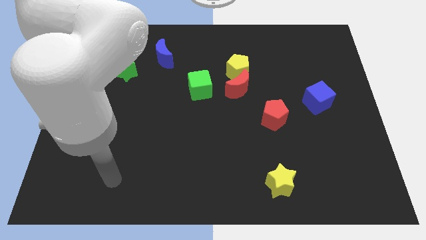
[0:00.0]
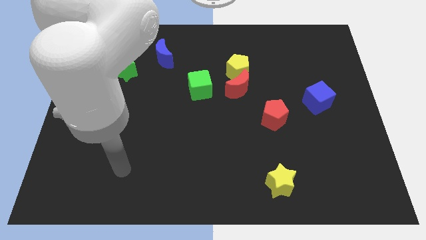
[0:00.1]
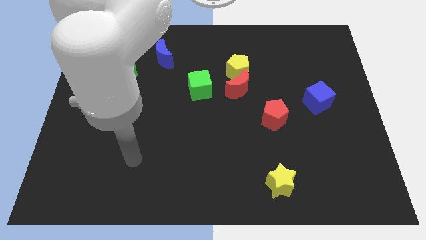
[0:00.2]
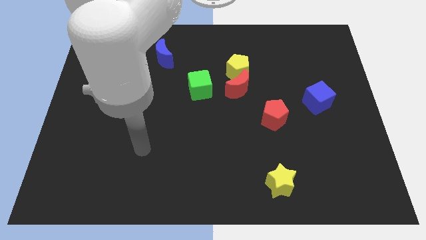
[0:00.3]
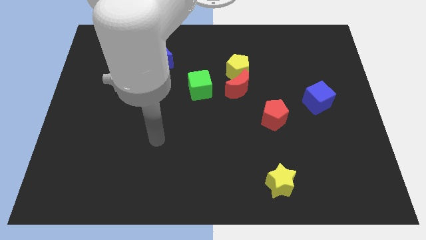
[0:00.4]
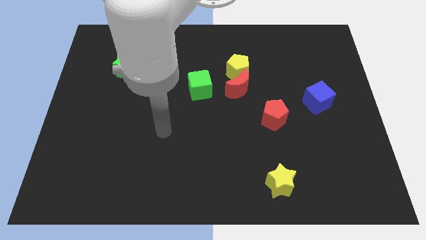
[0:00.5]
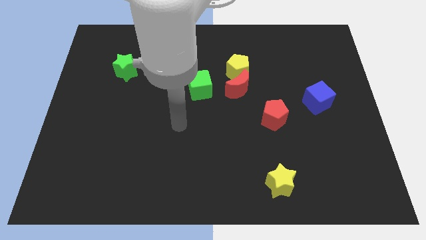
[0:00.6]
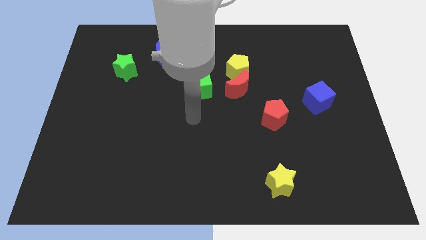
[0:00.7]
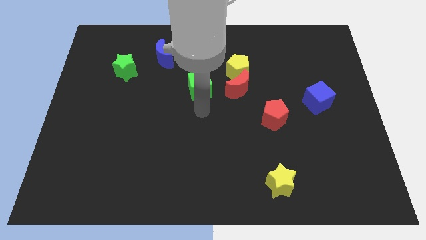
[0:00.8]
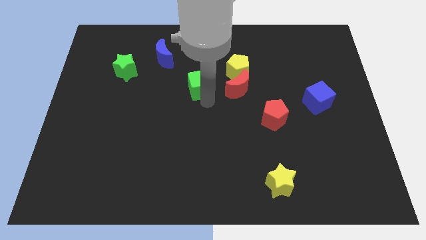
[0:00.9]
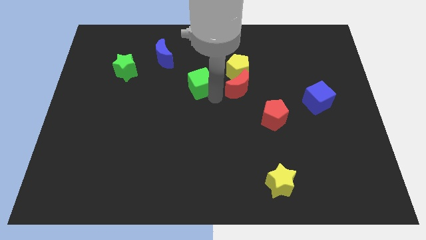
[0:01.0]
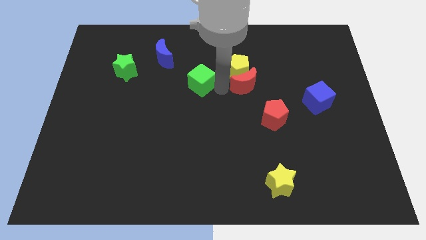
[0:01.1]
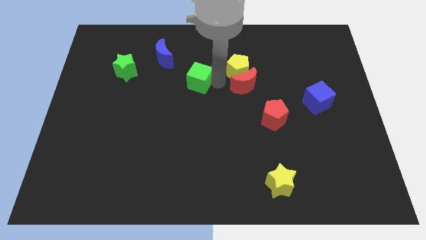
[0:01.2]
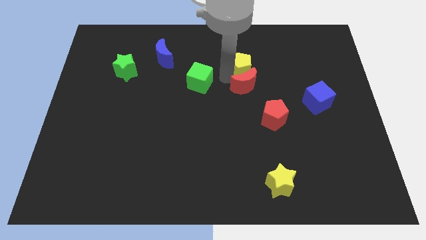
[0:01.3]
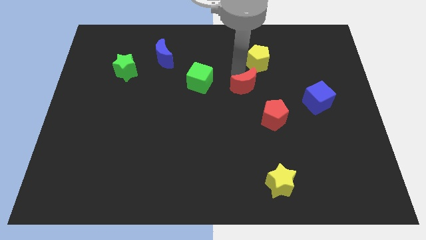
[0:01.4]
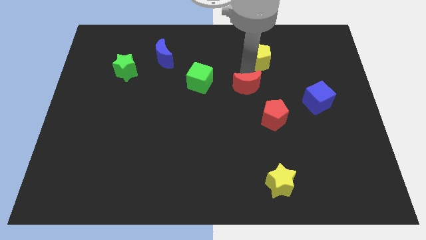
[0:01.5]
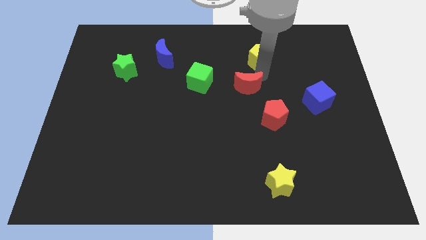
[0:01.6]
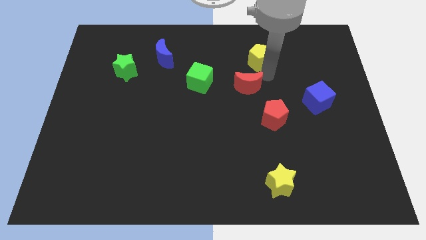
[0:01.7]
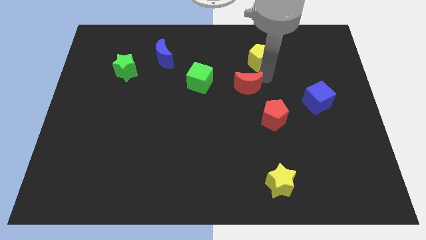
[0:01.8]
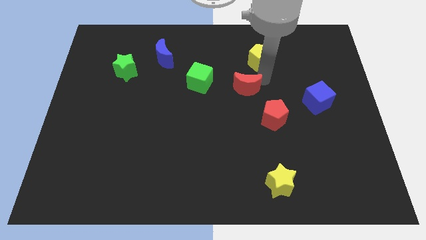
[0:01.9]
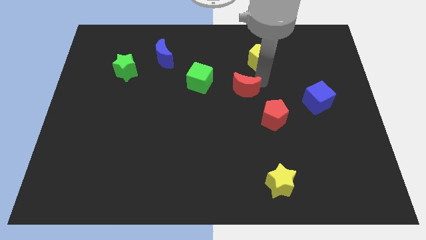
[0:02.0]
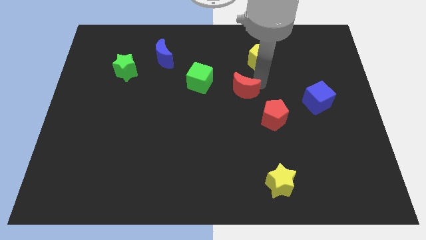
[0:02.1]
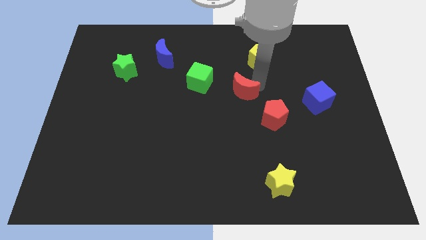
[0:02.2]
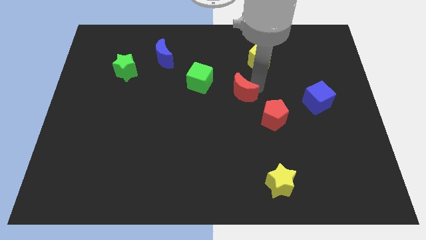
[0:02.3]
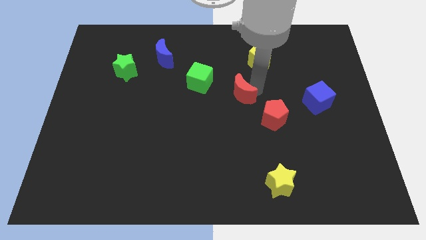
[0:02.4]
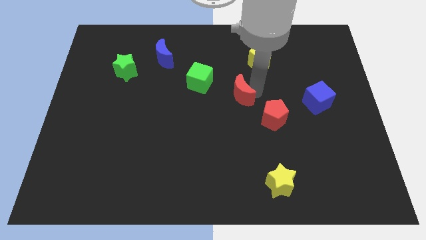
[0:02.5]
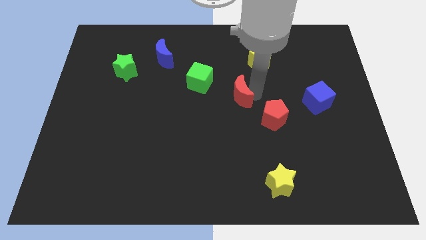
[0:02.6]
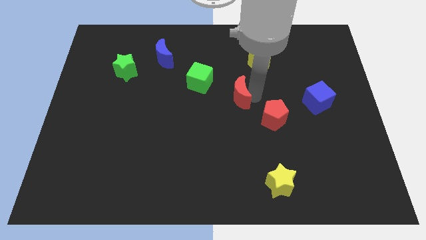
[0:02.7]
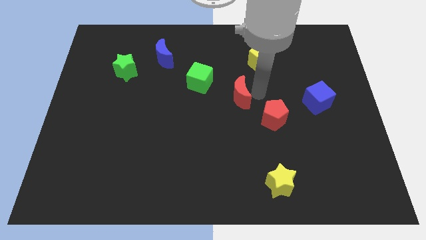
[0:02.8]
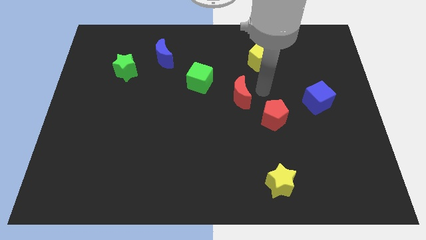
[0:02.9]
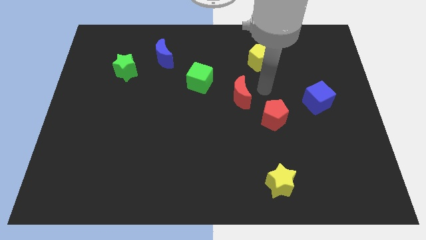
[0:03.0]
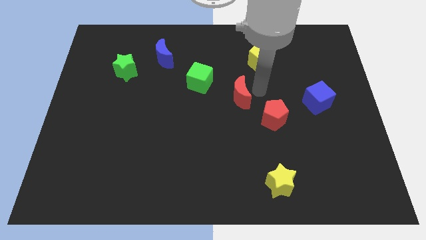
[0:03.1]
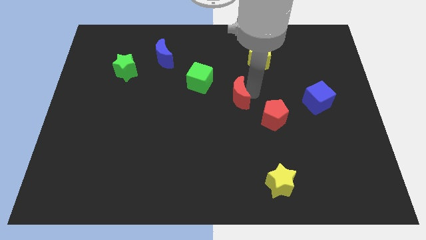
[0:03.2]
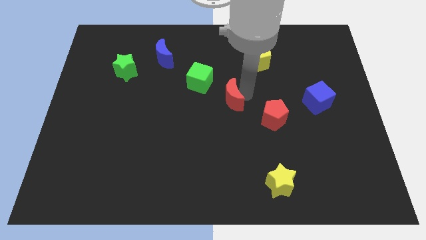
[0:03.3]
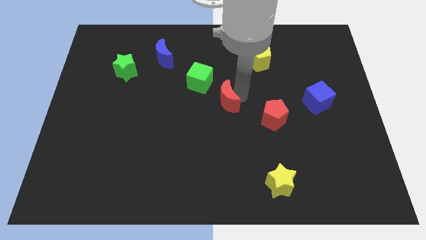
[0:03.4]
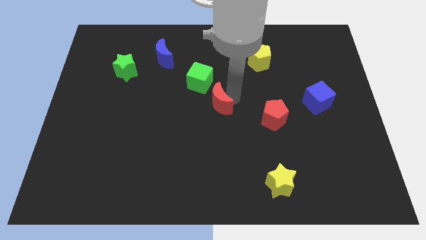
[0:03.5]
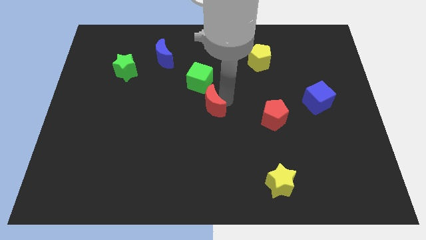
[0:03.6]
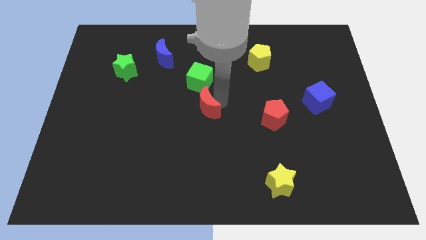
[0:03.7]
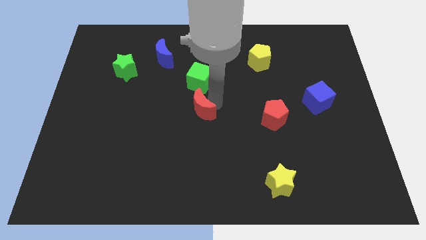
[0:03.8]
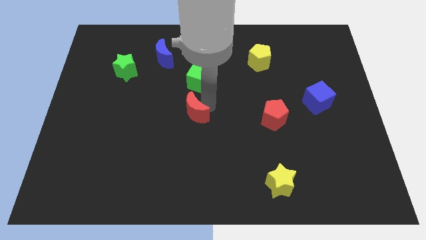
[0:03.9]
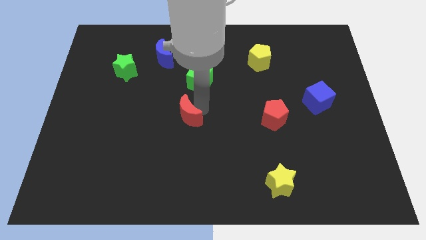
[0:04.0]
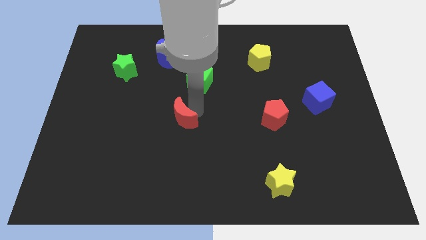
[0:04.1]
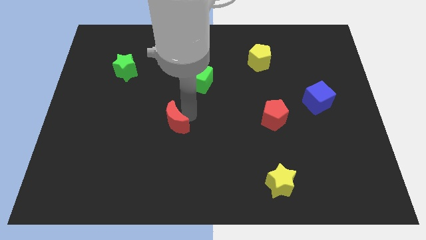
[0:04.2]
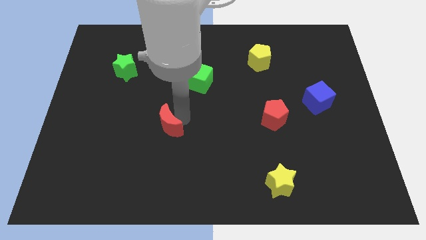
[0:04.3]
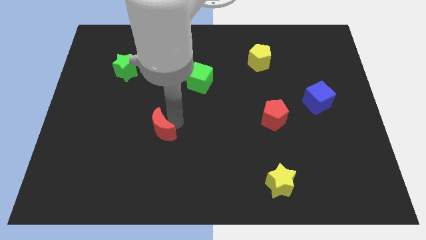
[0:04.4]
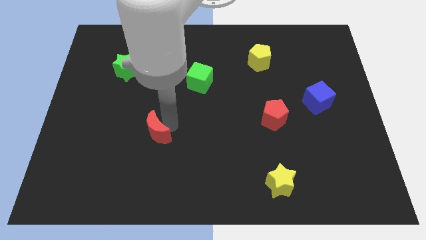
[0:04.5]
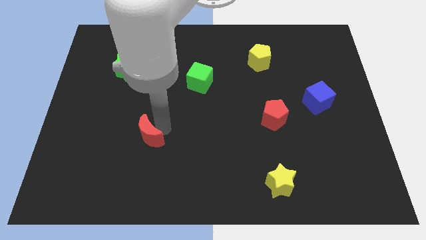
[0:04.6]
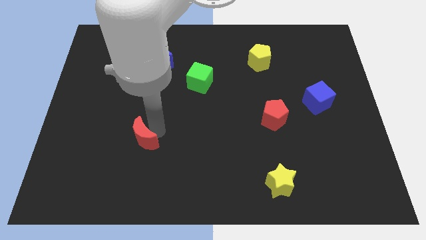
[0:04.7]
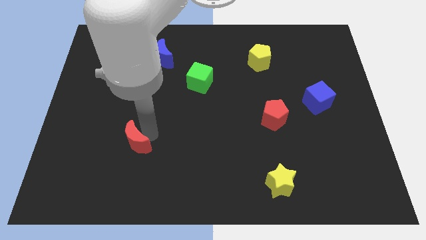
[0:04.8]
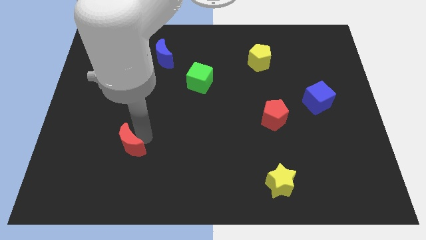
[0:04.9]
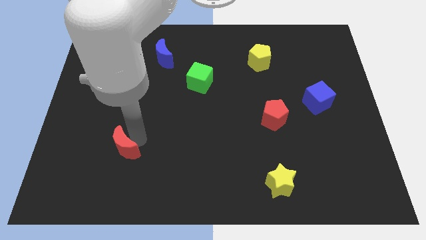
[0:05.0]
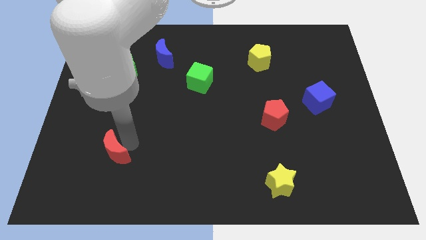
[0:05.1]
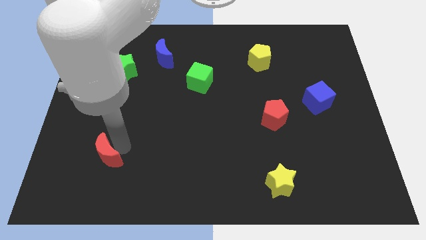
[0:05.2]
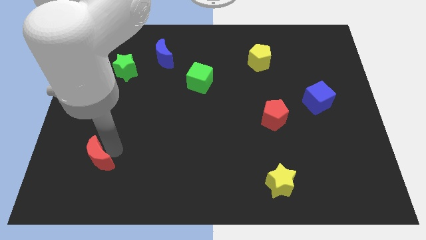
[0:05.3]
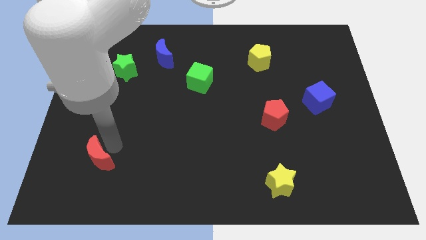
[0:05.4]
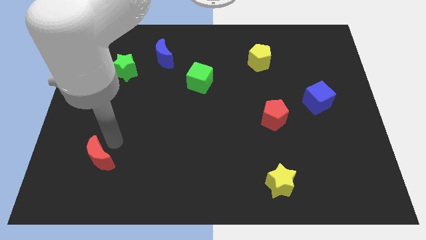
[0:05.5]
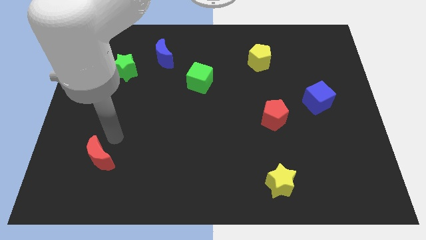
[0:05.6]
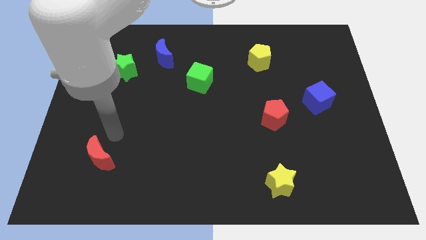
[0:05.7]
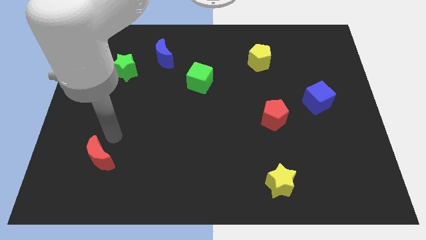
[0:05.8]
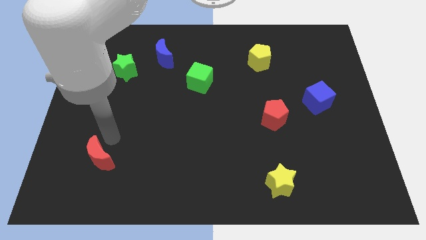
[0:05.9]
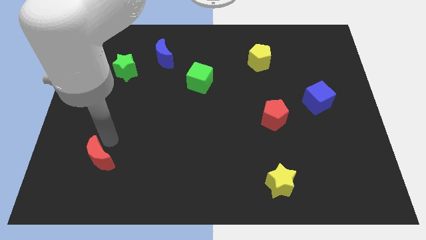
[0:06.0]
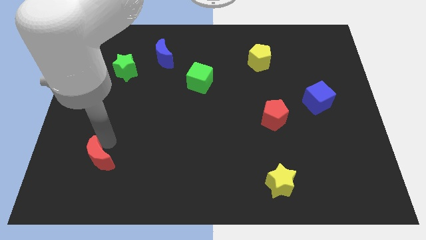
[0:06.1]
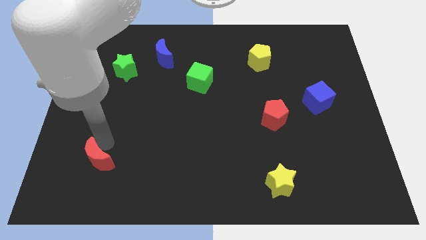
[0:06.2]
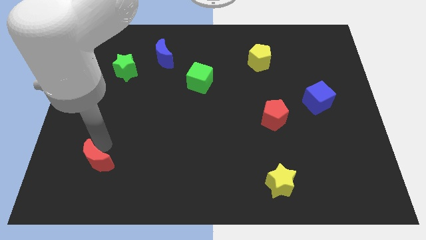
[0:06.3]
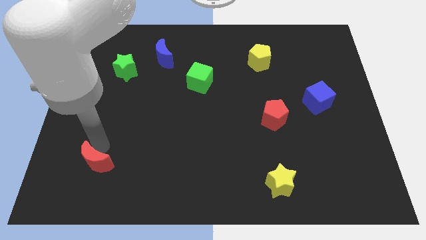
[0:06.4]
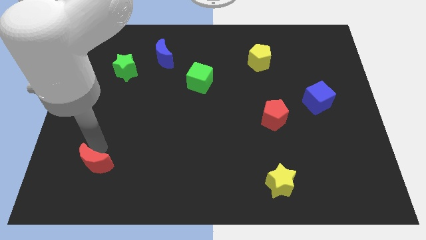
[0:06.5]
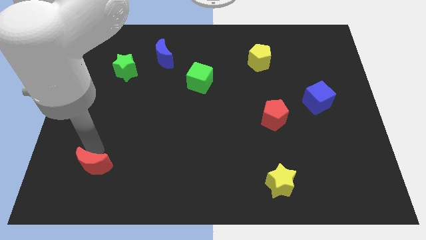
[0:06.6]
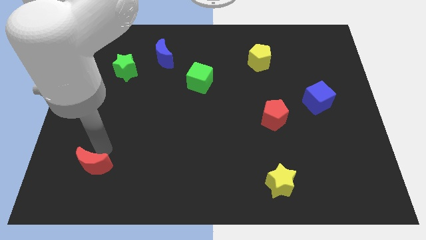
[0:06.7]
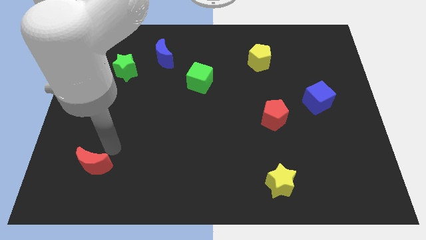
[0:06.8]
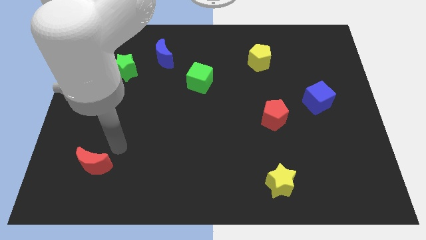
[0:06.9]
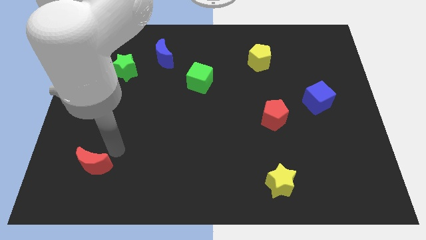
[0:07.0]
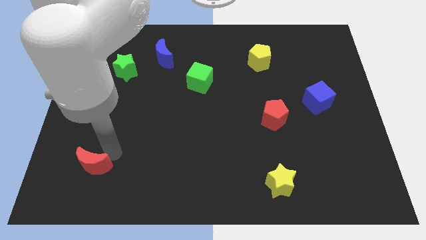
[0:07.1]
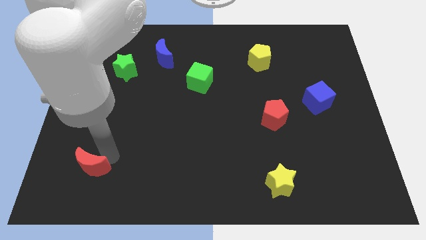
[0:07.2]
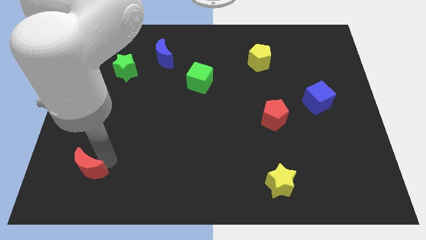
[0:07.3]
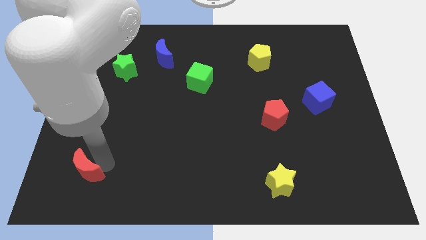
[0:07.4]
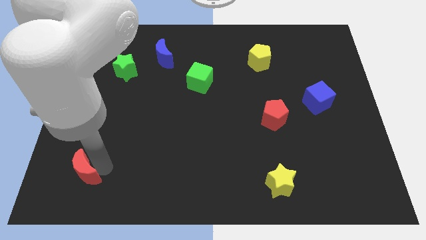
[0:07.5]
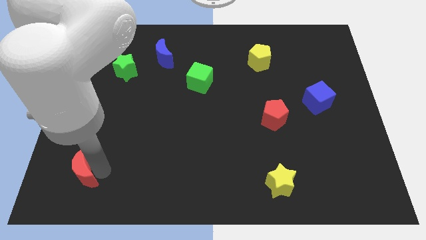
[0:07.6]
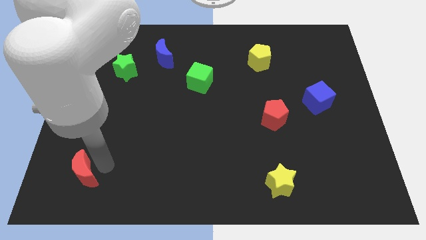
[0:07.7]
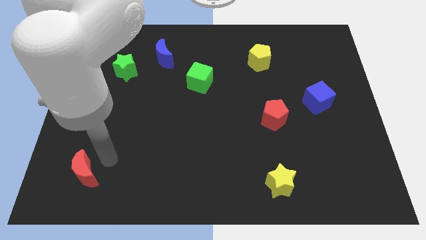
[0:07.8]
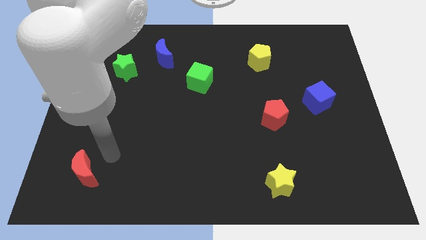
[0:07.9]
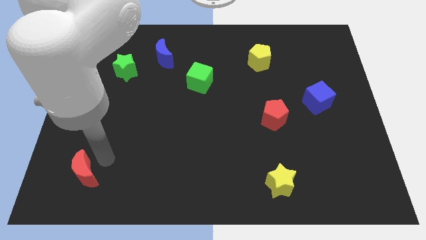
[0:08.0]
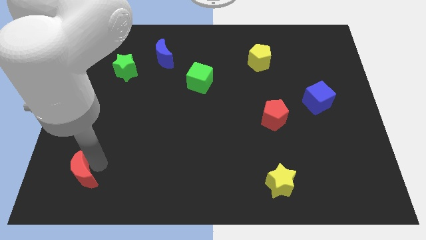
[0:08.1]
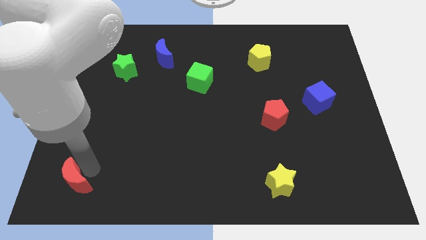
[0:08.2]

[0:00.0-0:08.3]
slide the red moon to the bottom left of the board
